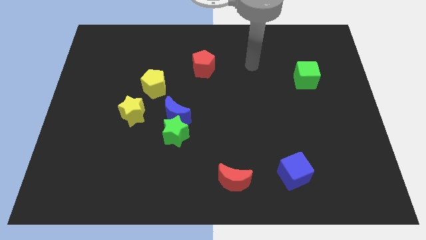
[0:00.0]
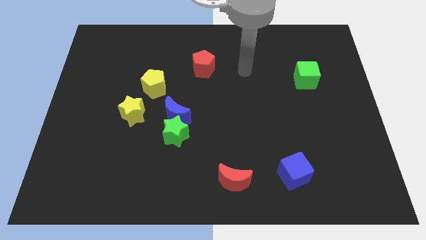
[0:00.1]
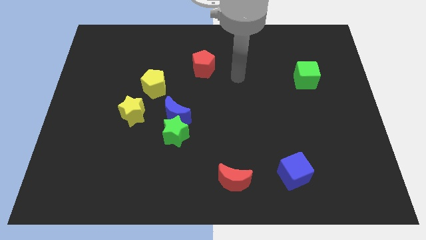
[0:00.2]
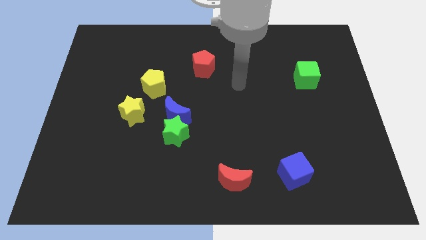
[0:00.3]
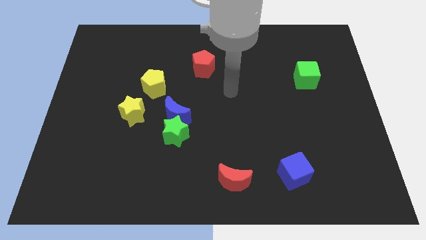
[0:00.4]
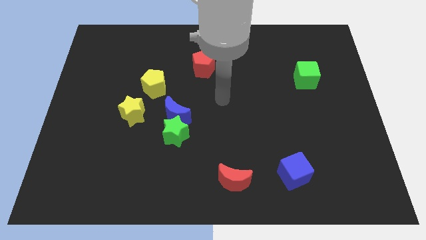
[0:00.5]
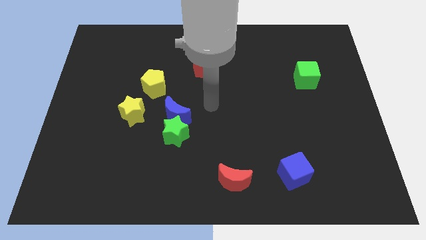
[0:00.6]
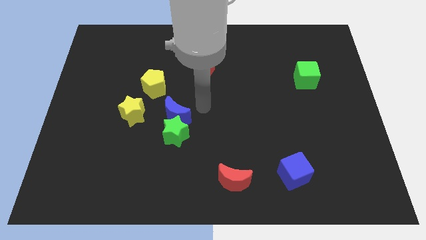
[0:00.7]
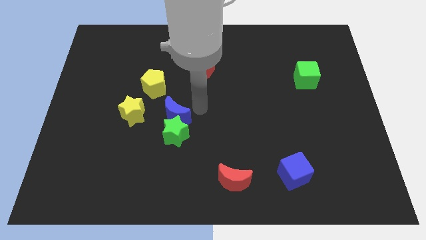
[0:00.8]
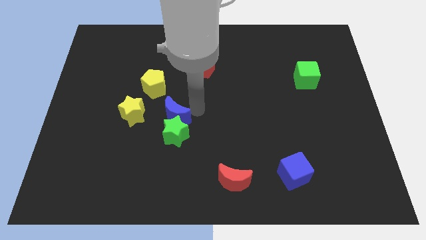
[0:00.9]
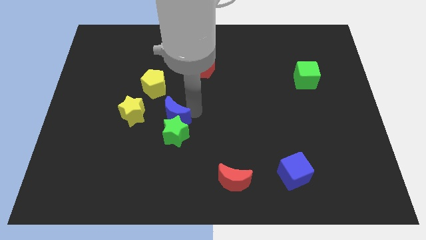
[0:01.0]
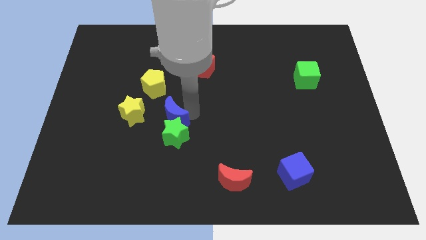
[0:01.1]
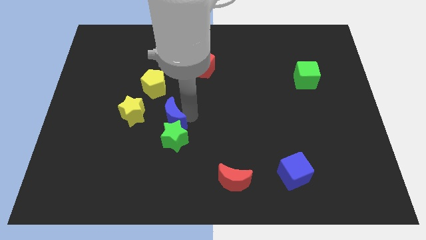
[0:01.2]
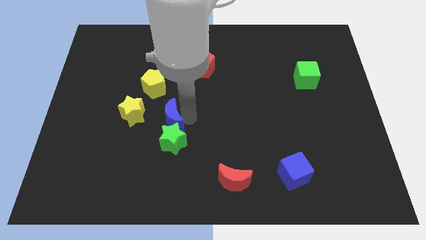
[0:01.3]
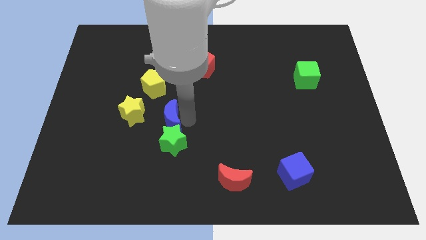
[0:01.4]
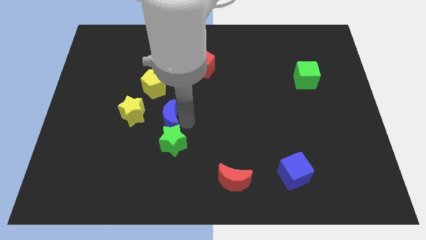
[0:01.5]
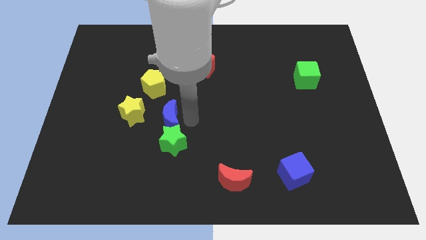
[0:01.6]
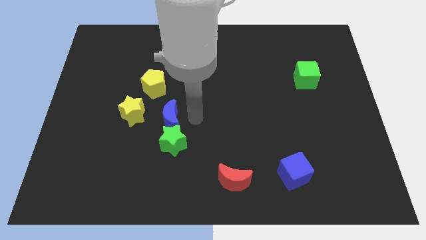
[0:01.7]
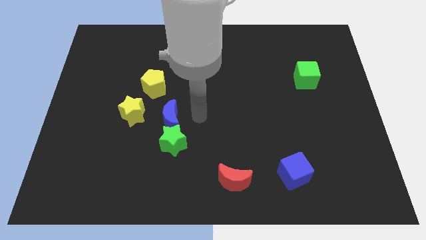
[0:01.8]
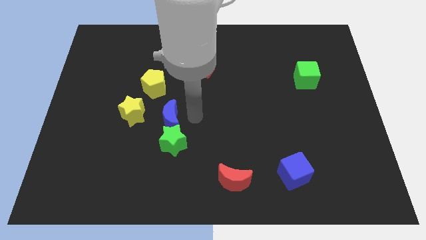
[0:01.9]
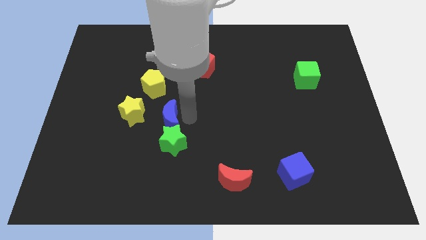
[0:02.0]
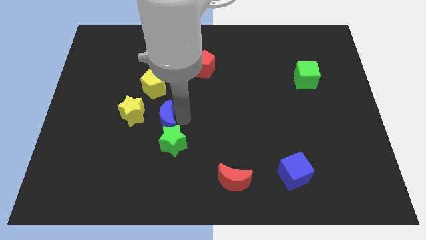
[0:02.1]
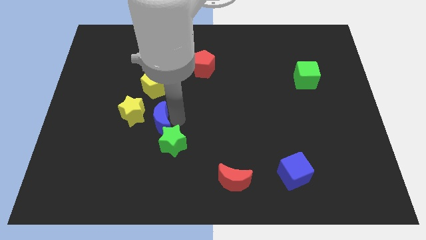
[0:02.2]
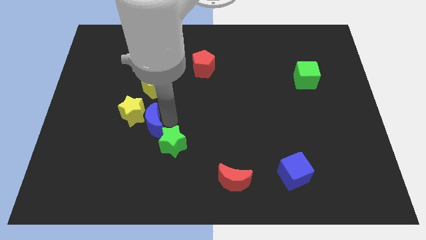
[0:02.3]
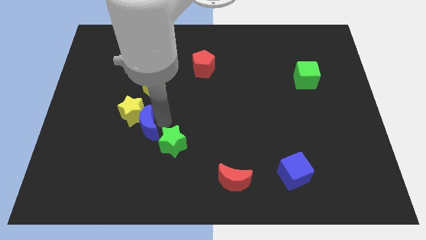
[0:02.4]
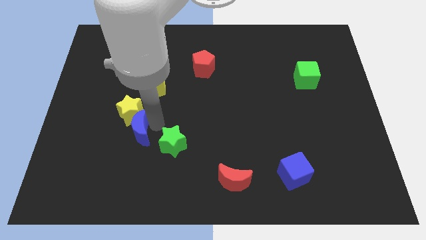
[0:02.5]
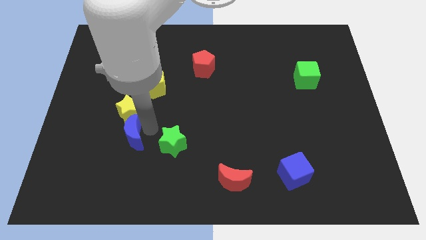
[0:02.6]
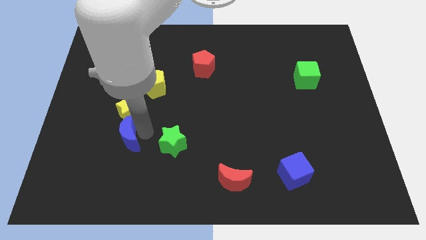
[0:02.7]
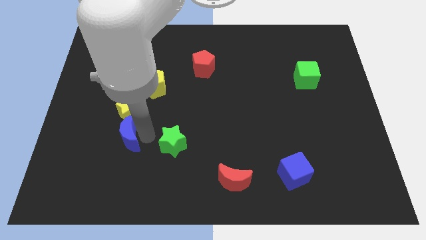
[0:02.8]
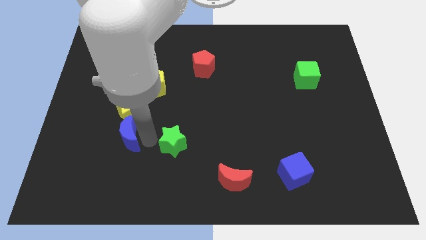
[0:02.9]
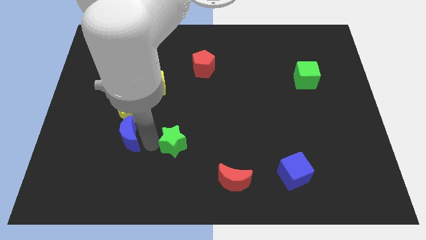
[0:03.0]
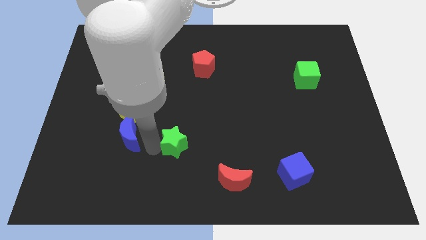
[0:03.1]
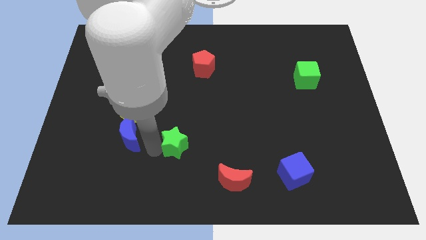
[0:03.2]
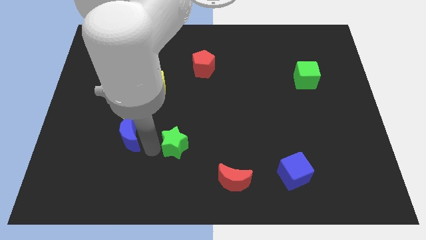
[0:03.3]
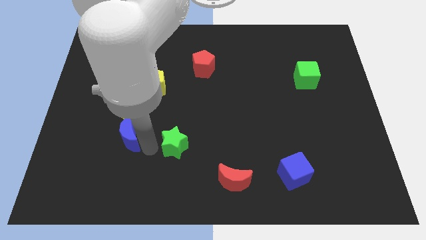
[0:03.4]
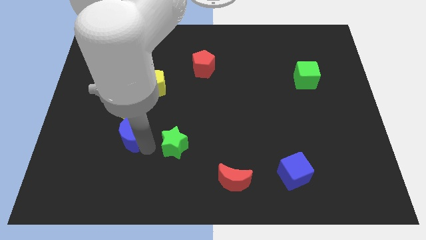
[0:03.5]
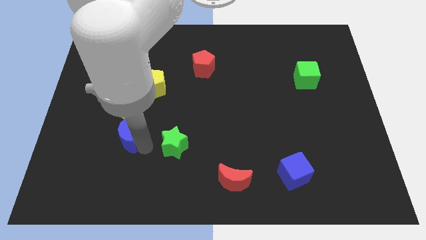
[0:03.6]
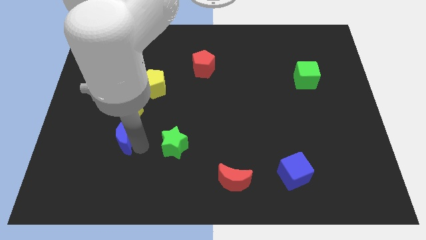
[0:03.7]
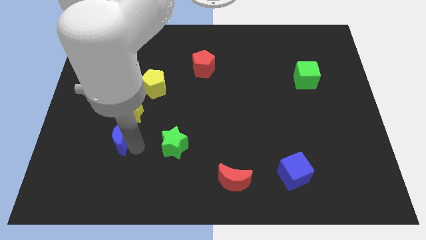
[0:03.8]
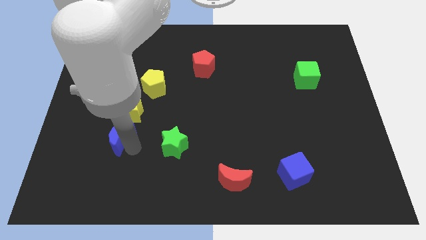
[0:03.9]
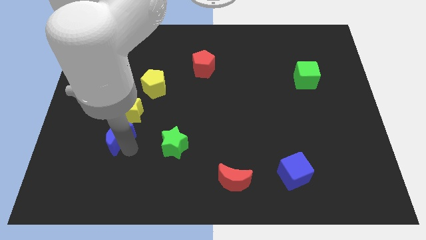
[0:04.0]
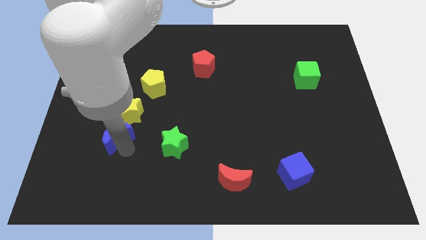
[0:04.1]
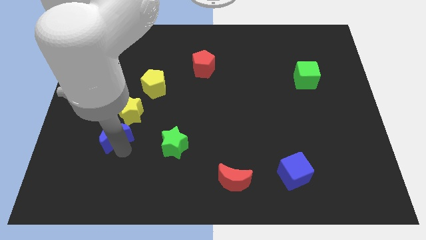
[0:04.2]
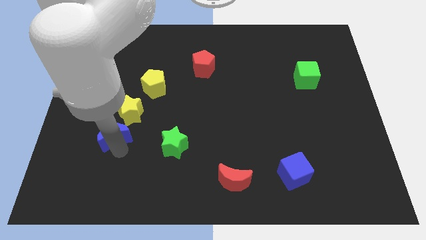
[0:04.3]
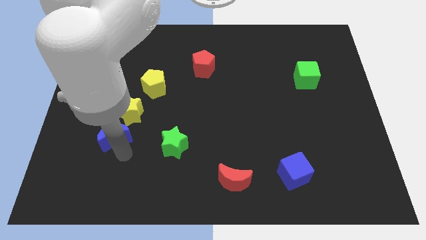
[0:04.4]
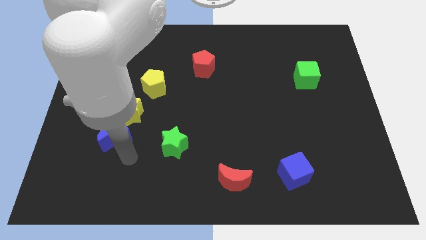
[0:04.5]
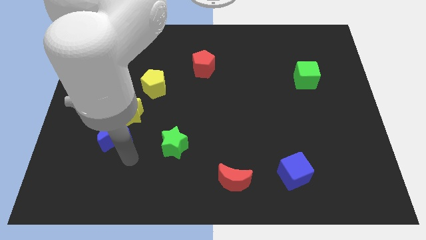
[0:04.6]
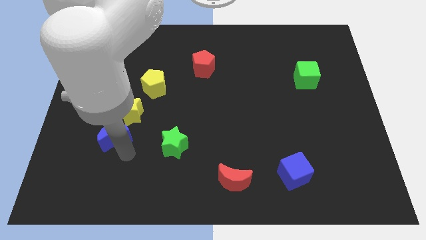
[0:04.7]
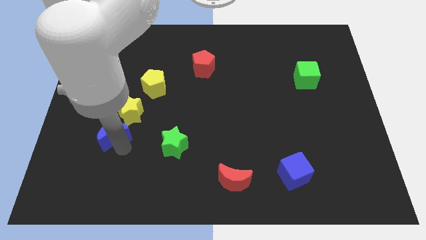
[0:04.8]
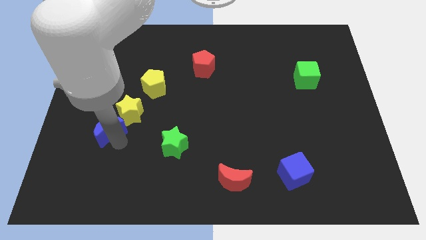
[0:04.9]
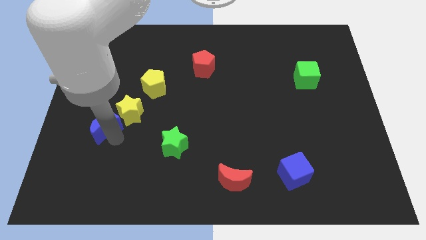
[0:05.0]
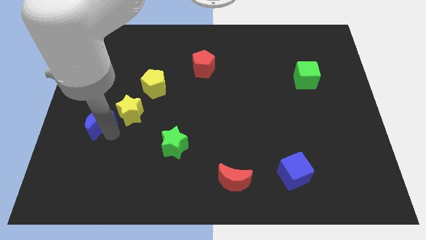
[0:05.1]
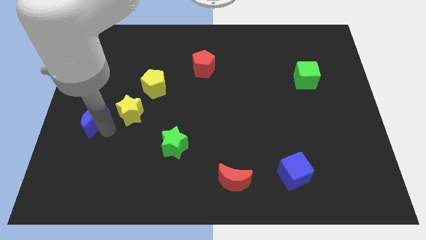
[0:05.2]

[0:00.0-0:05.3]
put the blue moon to the center left
